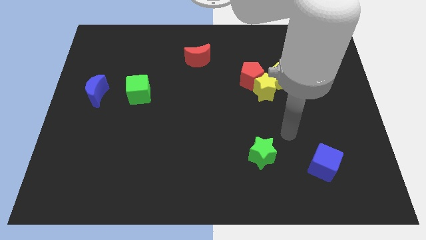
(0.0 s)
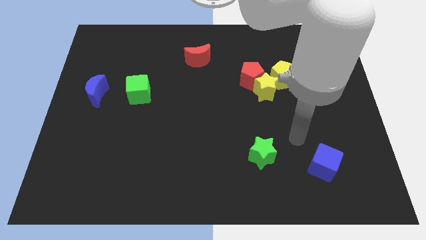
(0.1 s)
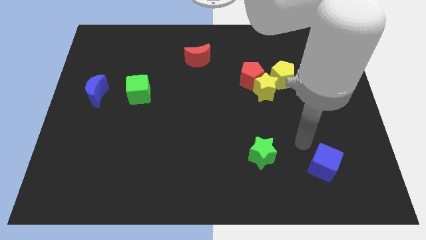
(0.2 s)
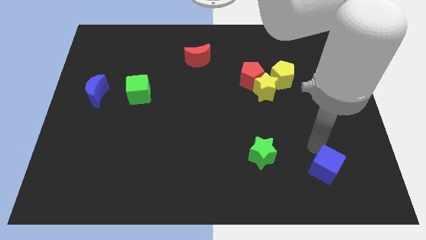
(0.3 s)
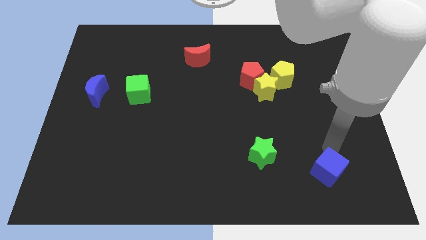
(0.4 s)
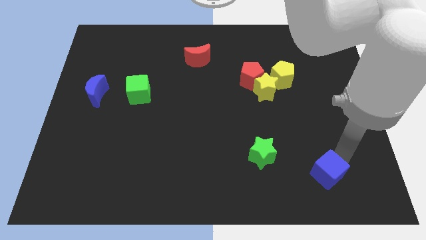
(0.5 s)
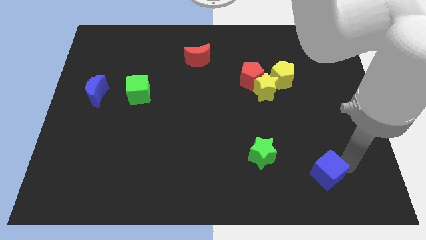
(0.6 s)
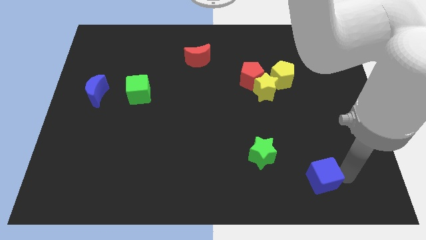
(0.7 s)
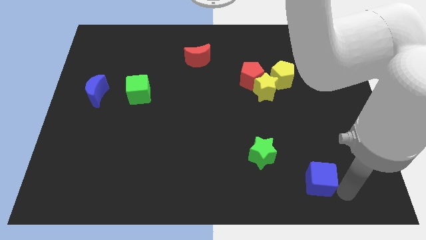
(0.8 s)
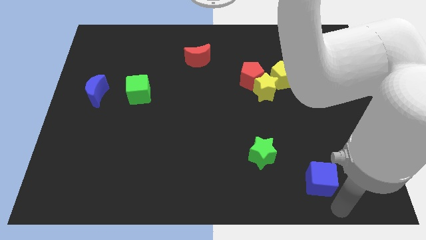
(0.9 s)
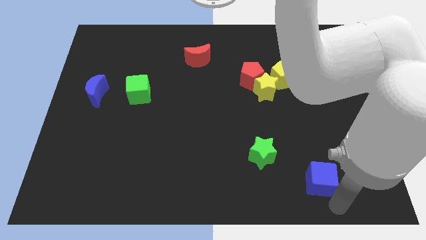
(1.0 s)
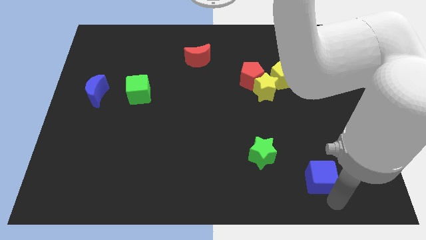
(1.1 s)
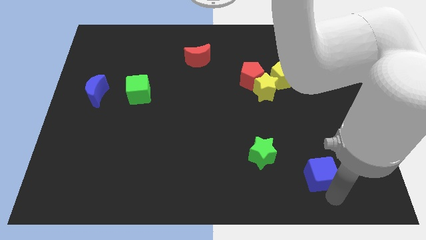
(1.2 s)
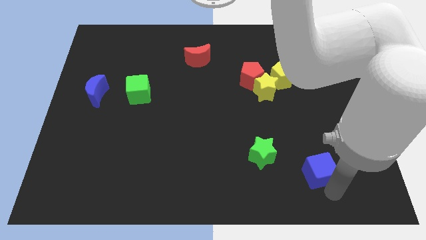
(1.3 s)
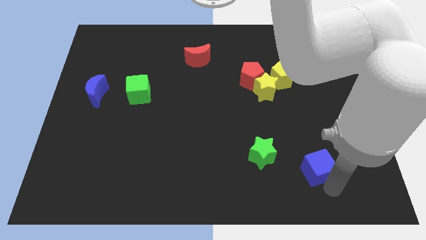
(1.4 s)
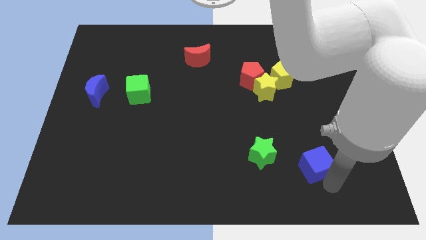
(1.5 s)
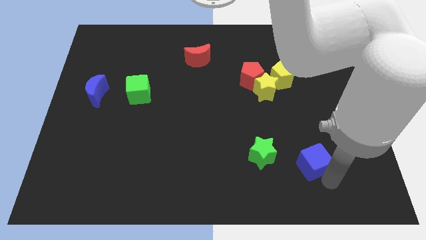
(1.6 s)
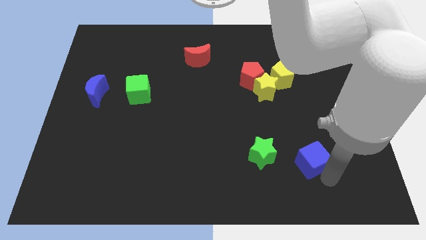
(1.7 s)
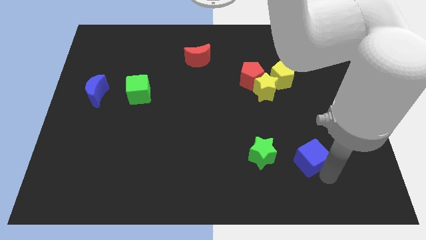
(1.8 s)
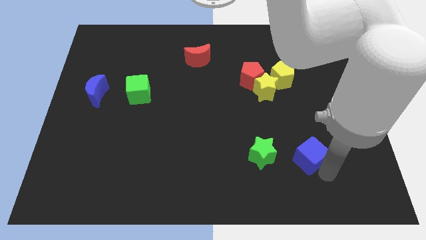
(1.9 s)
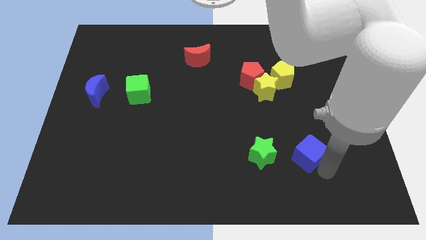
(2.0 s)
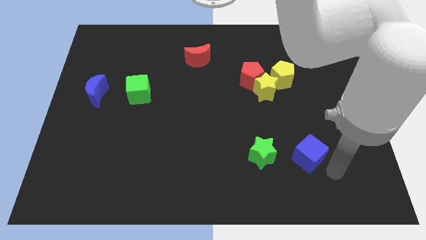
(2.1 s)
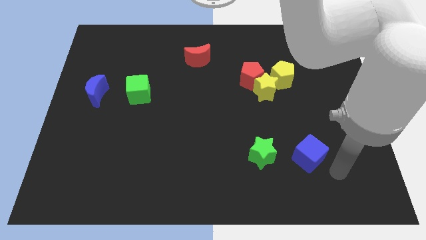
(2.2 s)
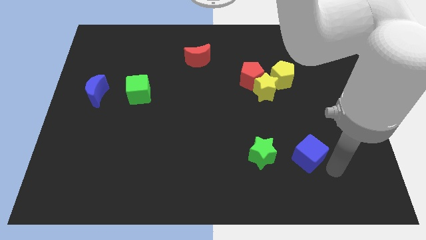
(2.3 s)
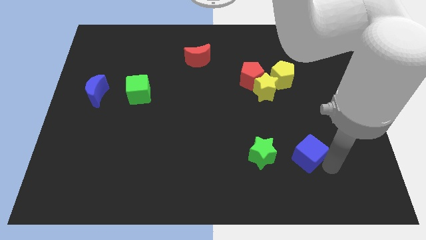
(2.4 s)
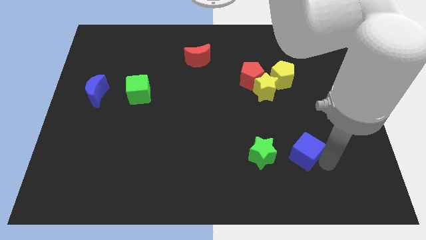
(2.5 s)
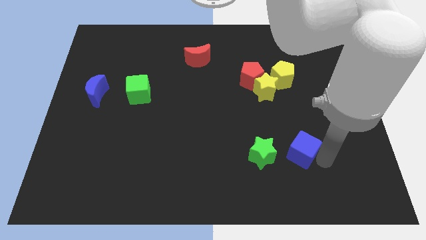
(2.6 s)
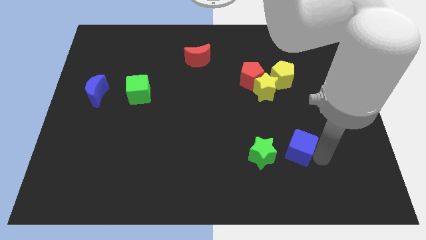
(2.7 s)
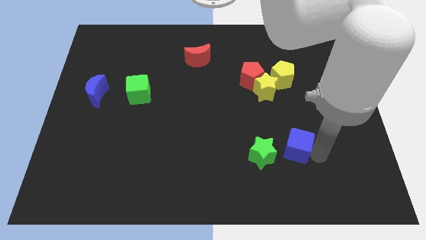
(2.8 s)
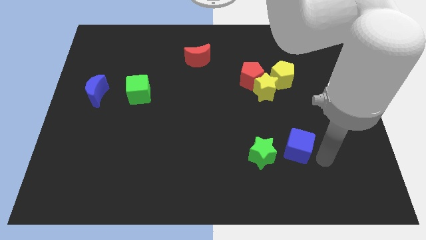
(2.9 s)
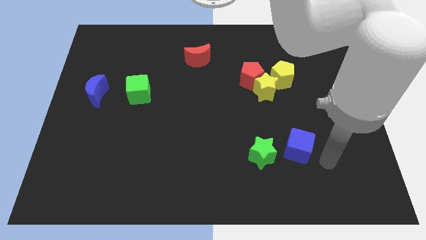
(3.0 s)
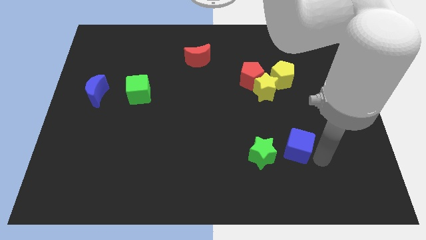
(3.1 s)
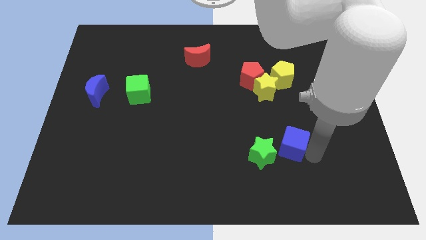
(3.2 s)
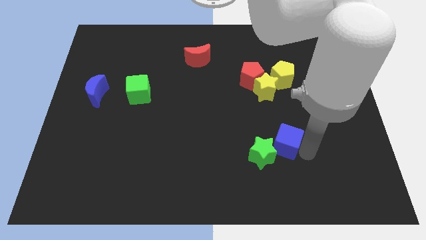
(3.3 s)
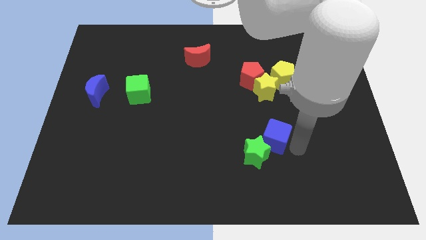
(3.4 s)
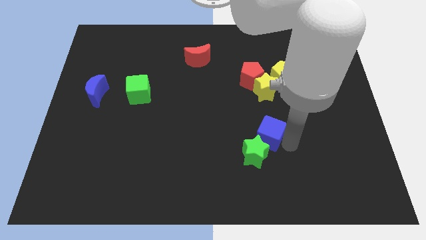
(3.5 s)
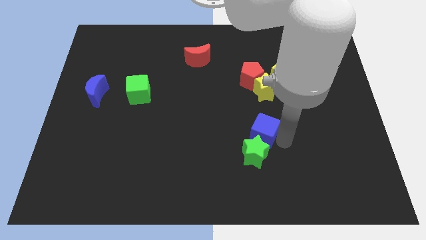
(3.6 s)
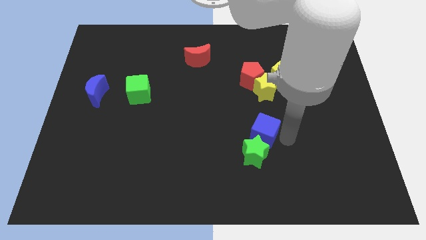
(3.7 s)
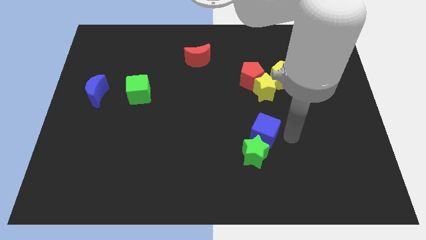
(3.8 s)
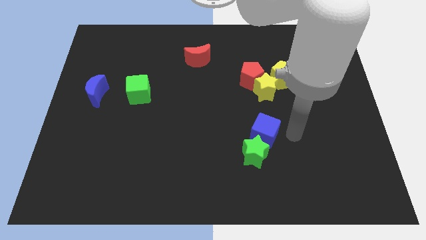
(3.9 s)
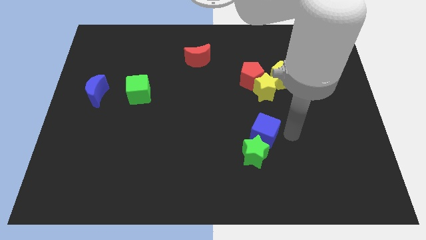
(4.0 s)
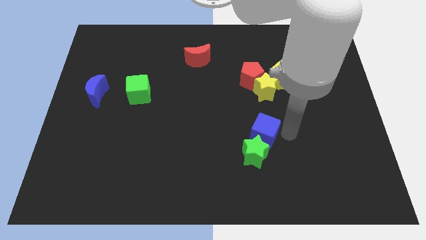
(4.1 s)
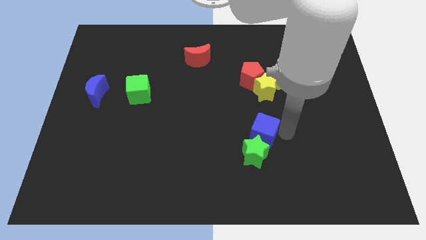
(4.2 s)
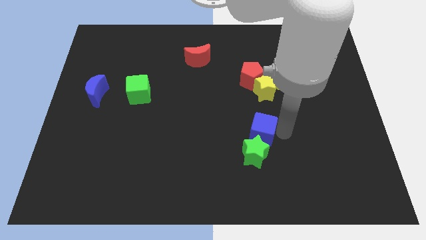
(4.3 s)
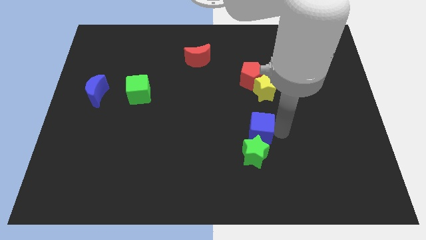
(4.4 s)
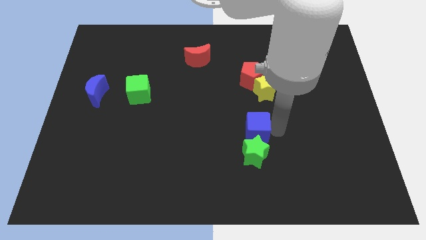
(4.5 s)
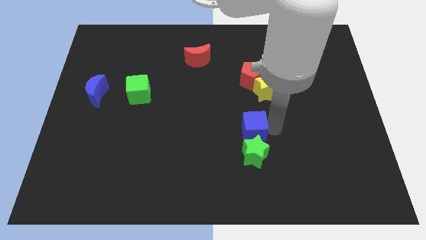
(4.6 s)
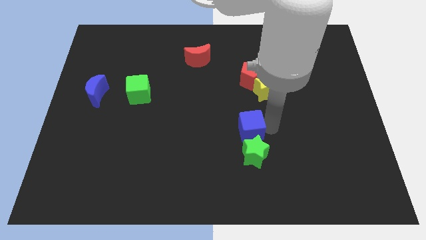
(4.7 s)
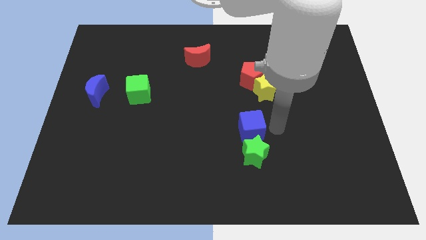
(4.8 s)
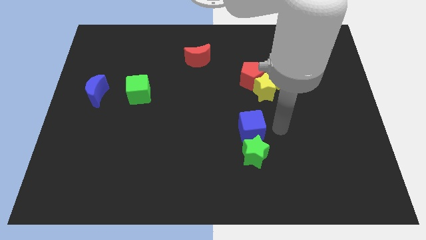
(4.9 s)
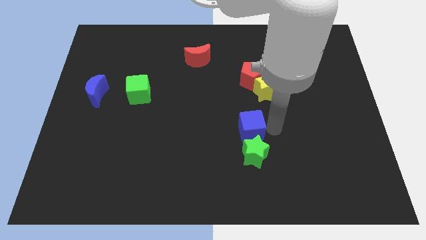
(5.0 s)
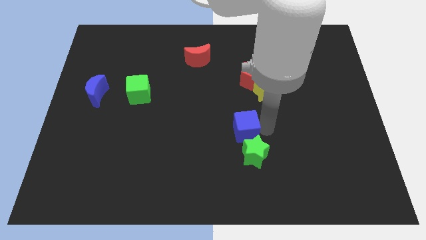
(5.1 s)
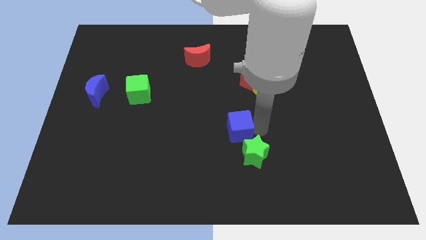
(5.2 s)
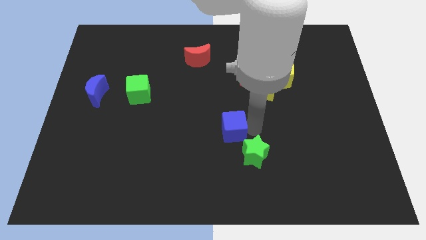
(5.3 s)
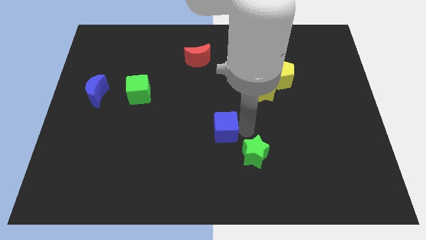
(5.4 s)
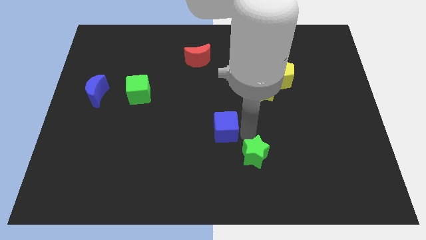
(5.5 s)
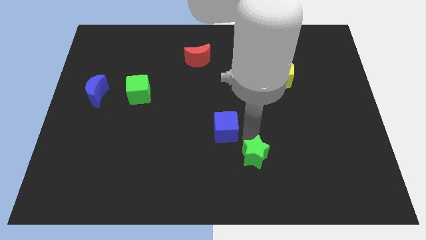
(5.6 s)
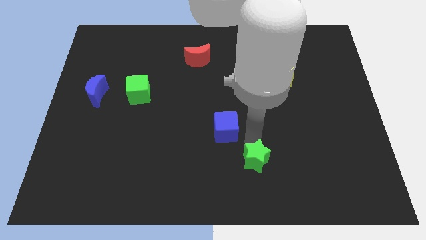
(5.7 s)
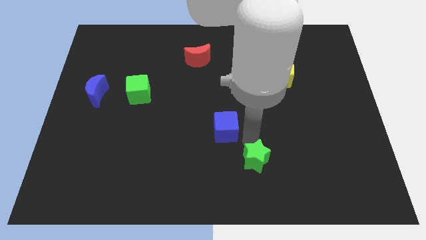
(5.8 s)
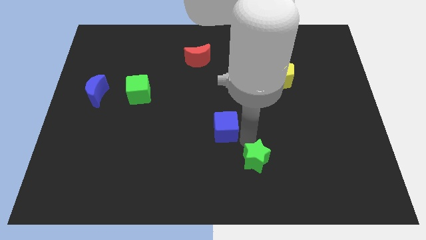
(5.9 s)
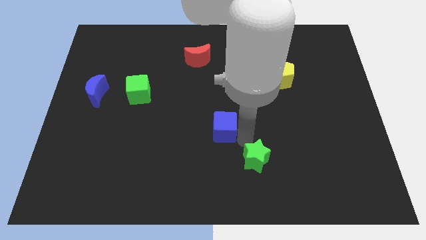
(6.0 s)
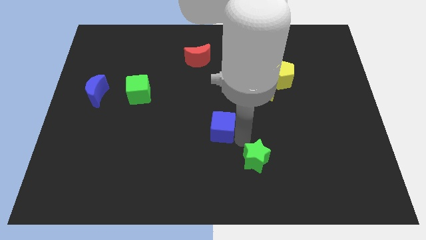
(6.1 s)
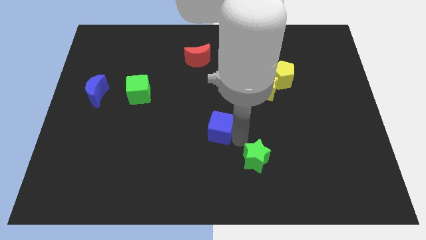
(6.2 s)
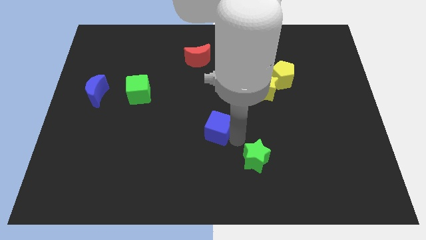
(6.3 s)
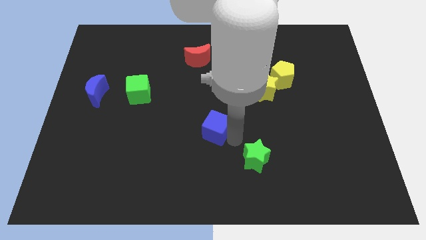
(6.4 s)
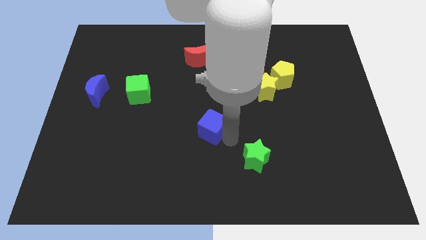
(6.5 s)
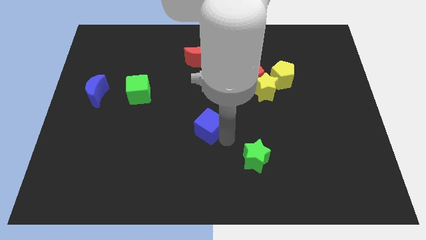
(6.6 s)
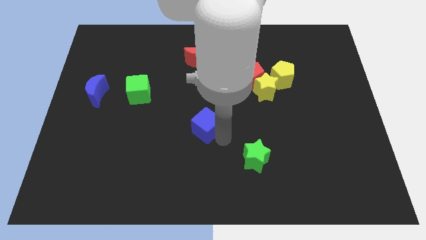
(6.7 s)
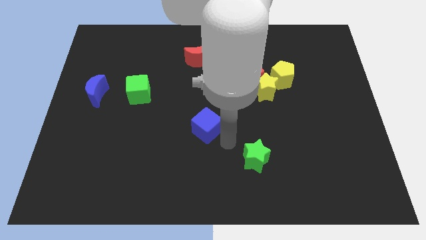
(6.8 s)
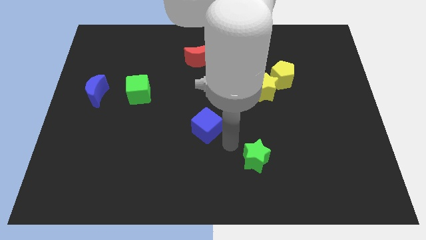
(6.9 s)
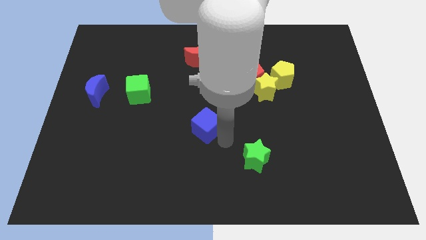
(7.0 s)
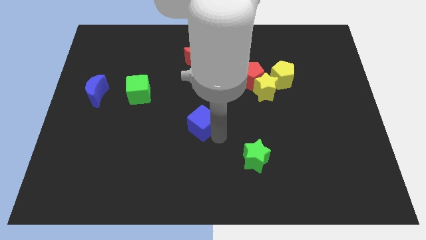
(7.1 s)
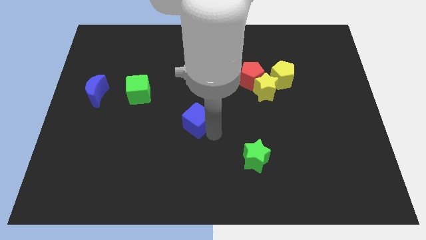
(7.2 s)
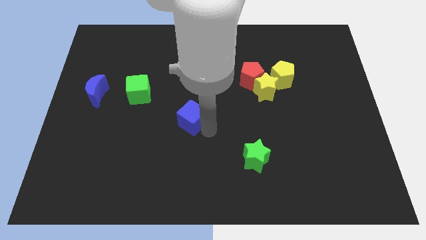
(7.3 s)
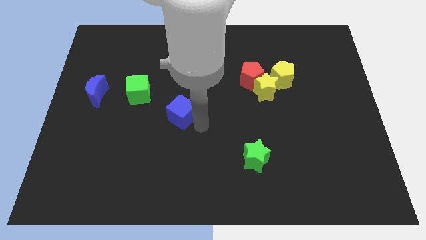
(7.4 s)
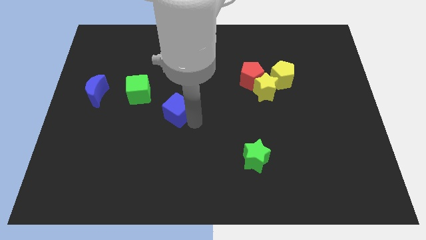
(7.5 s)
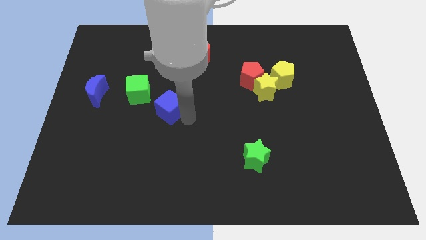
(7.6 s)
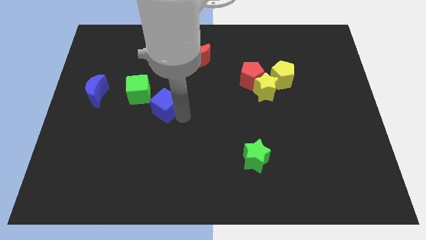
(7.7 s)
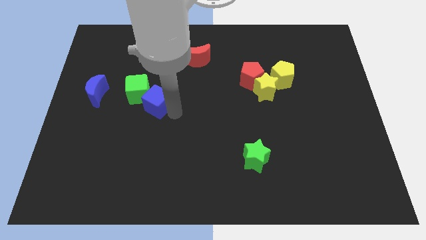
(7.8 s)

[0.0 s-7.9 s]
slide the blue cube to the green cube
